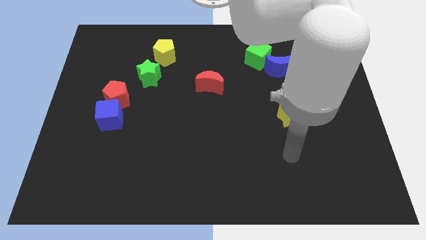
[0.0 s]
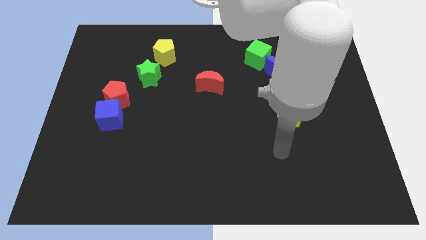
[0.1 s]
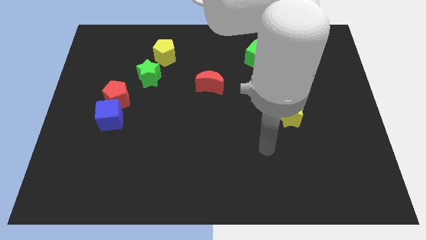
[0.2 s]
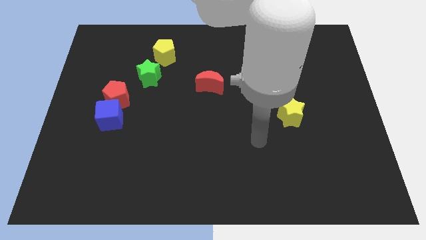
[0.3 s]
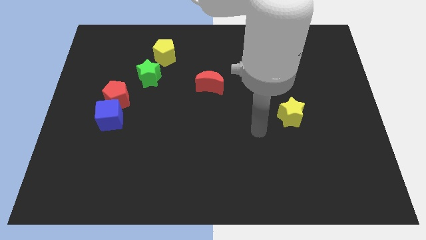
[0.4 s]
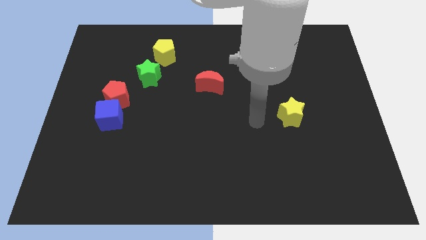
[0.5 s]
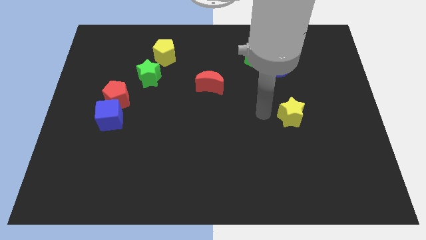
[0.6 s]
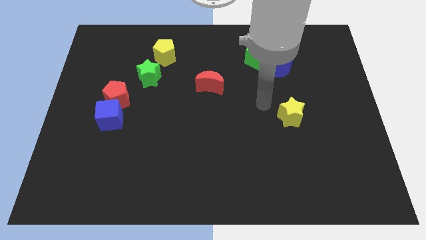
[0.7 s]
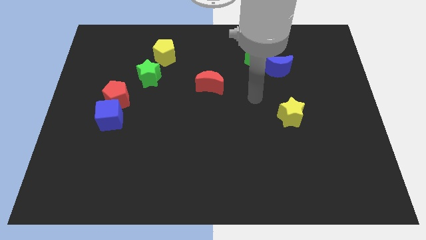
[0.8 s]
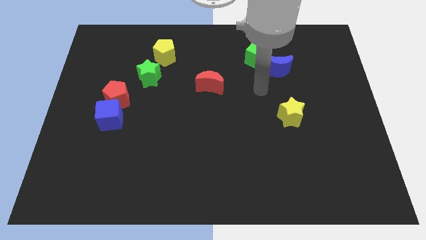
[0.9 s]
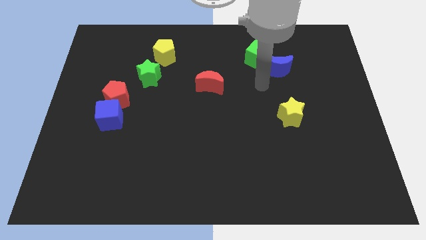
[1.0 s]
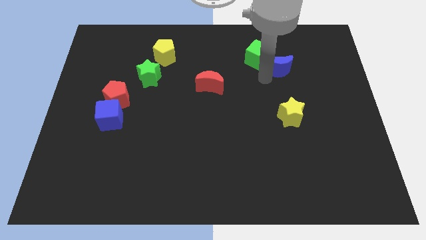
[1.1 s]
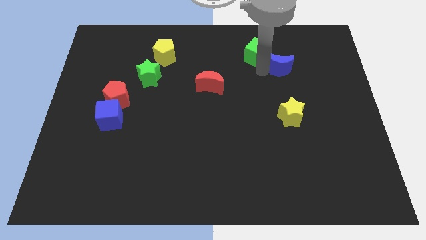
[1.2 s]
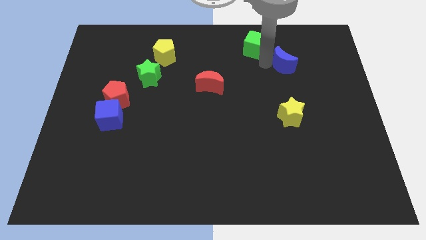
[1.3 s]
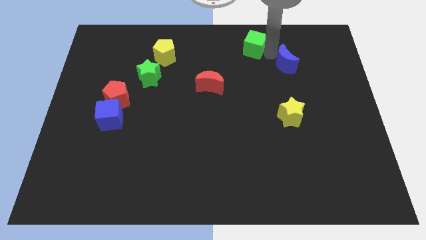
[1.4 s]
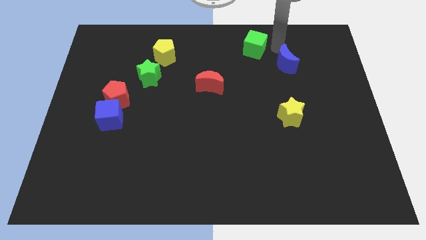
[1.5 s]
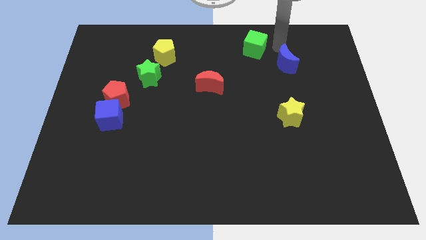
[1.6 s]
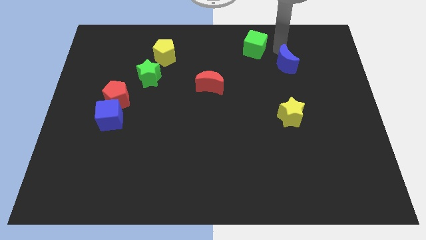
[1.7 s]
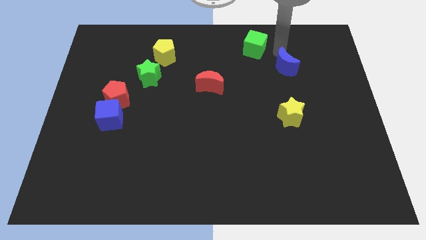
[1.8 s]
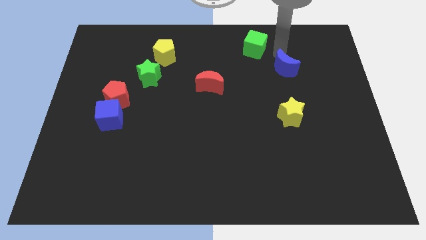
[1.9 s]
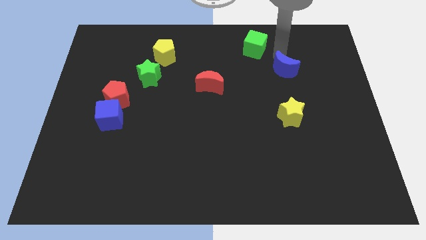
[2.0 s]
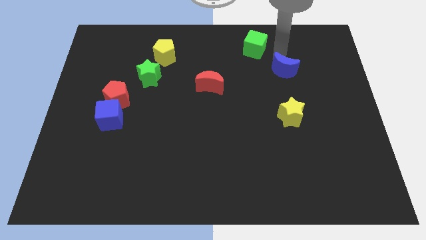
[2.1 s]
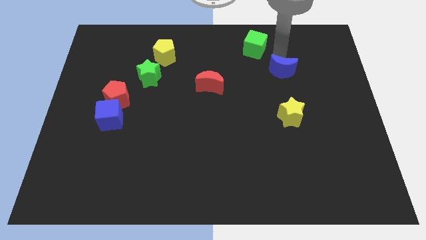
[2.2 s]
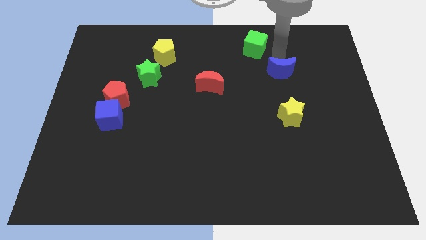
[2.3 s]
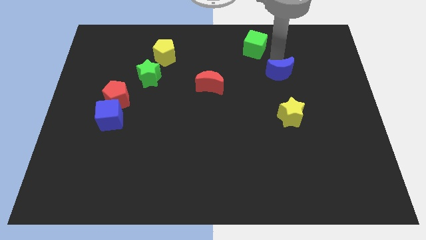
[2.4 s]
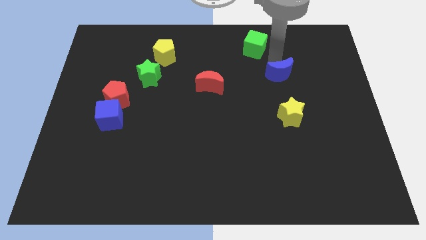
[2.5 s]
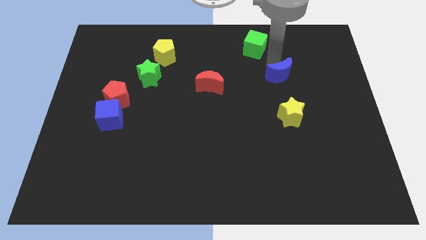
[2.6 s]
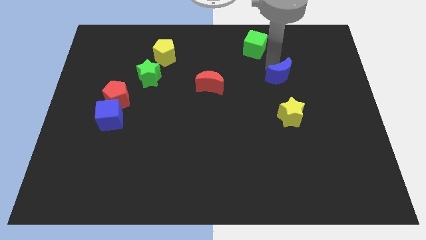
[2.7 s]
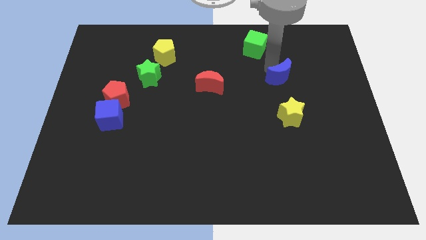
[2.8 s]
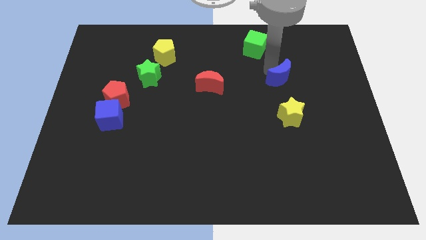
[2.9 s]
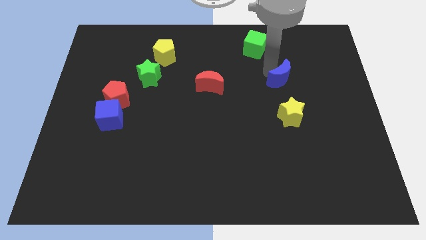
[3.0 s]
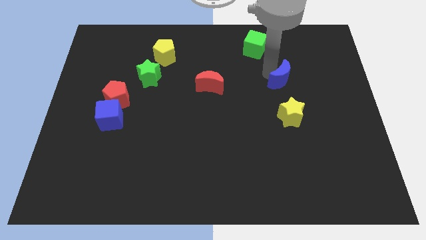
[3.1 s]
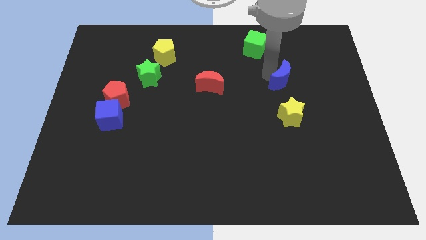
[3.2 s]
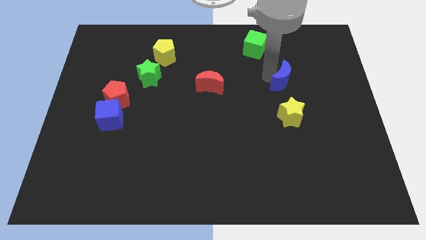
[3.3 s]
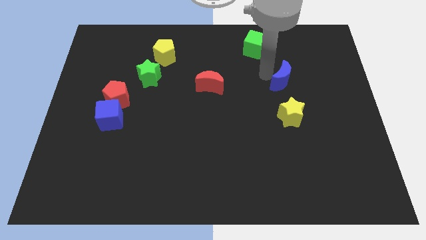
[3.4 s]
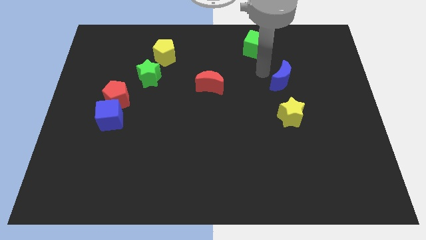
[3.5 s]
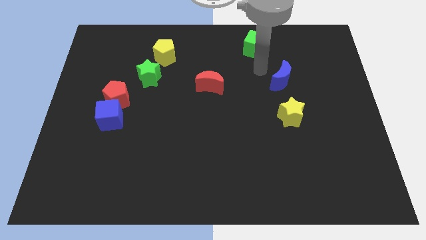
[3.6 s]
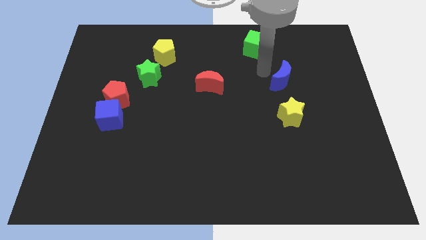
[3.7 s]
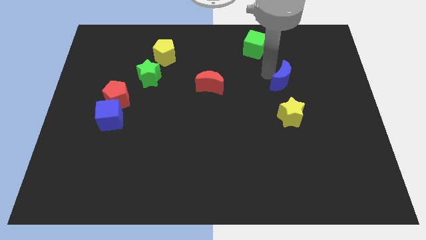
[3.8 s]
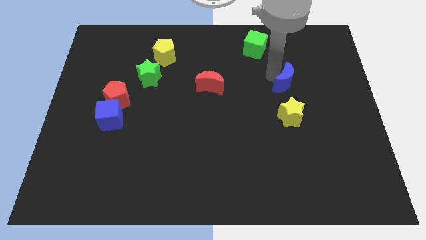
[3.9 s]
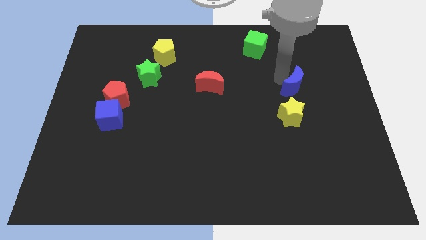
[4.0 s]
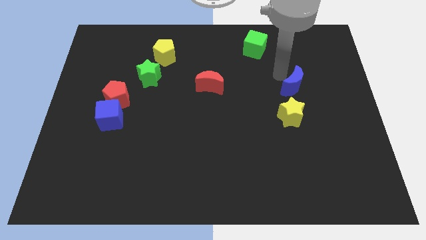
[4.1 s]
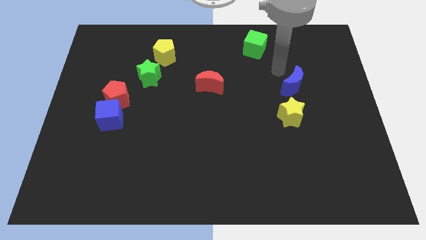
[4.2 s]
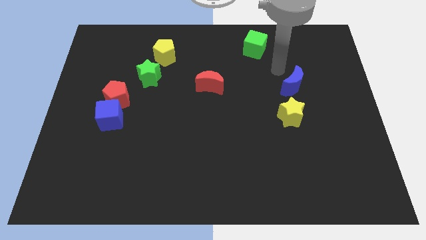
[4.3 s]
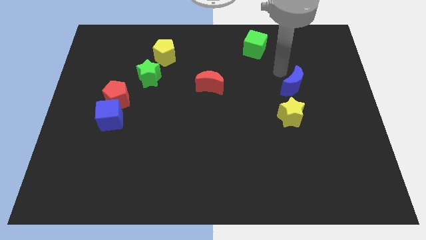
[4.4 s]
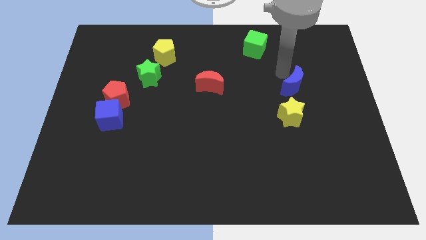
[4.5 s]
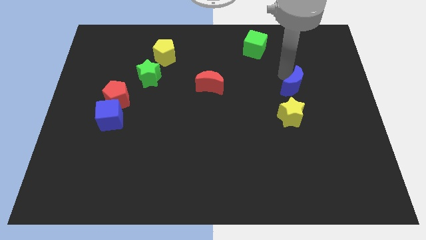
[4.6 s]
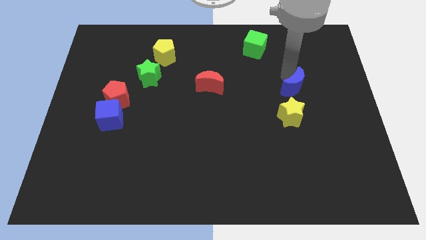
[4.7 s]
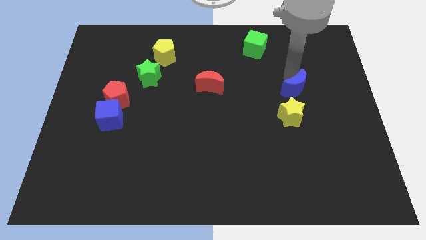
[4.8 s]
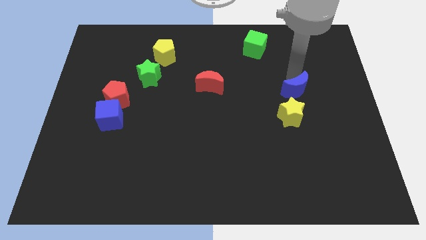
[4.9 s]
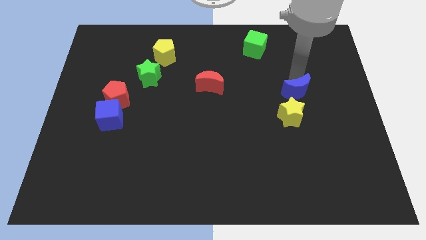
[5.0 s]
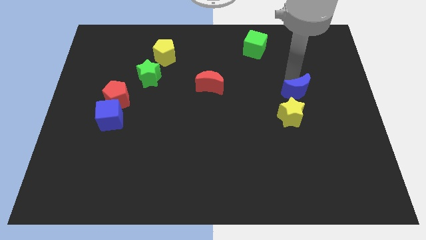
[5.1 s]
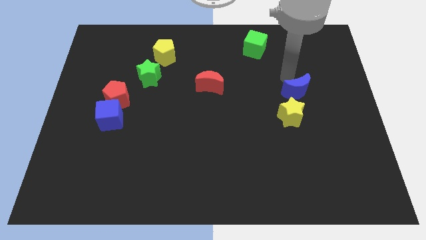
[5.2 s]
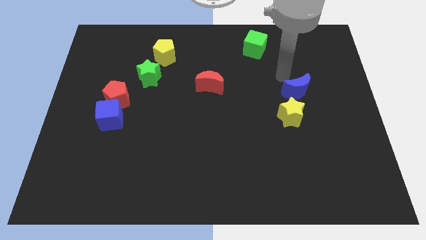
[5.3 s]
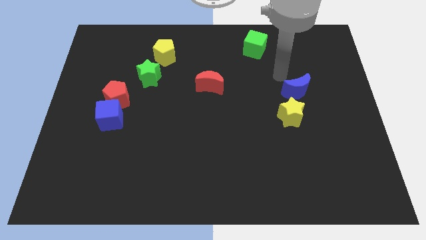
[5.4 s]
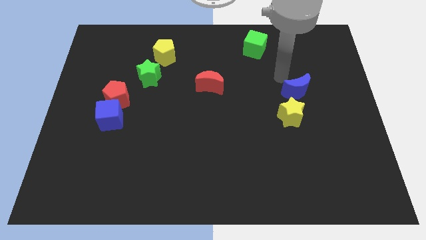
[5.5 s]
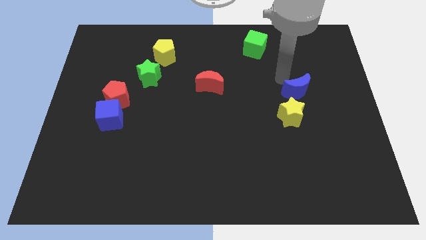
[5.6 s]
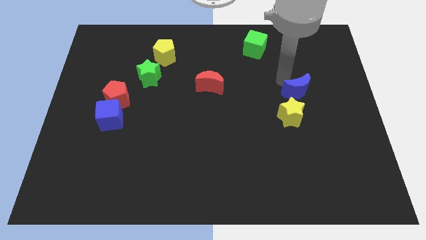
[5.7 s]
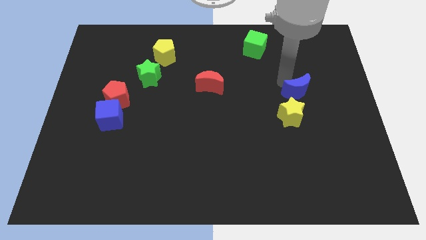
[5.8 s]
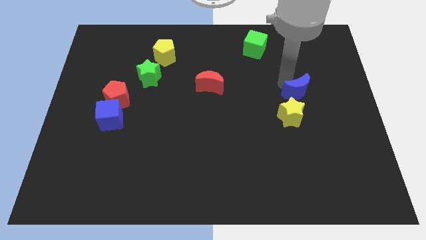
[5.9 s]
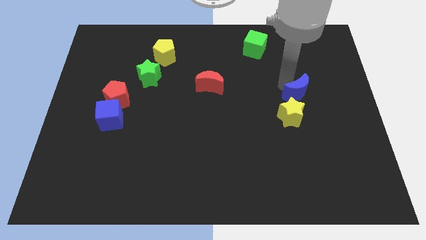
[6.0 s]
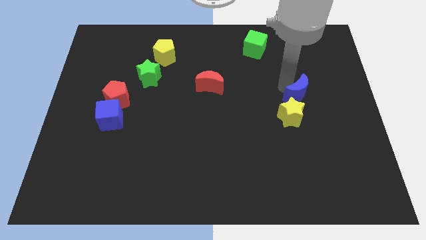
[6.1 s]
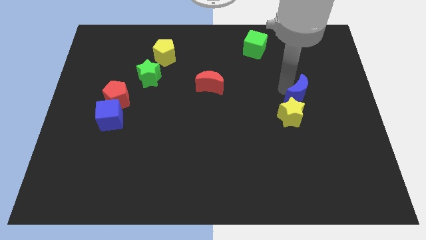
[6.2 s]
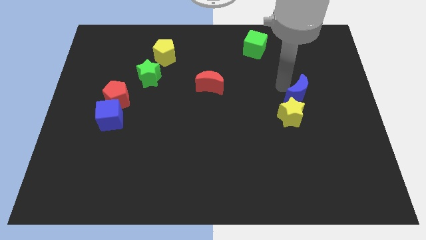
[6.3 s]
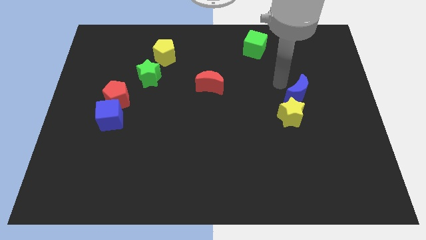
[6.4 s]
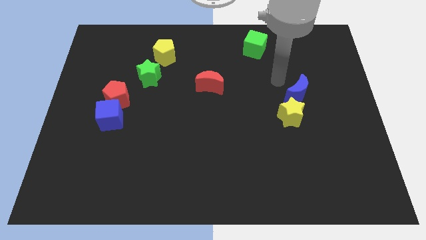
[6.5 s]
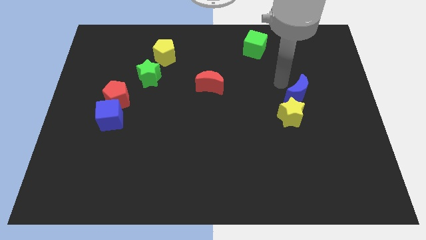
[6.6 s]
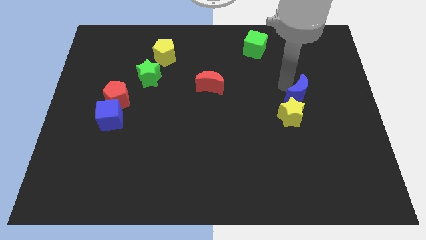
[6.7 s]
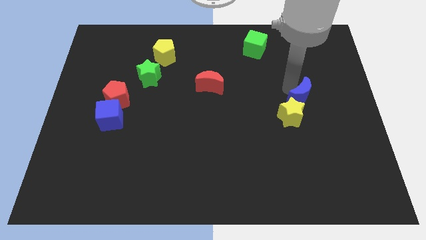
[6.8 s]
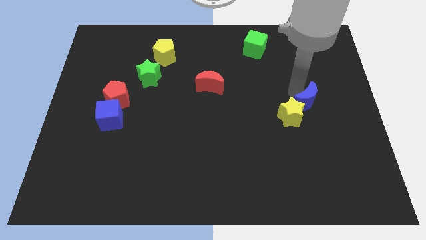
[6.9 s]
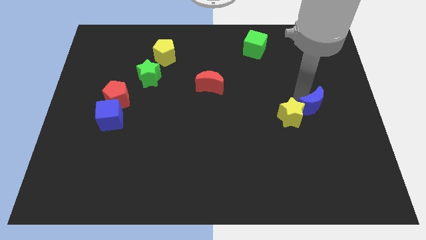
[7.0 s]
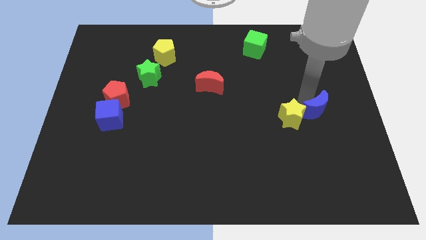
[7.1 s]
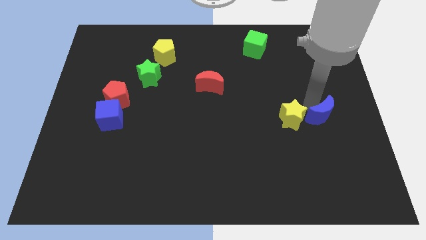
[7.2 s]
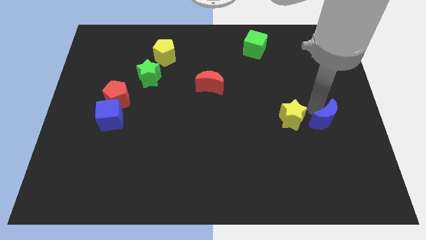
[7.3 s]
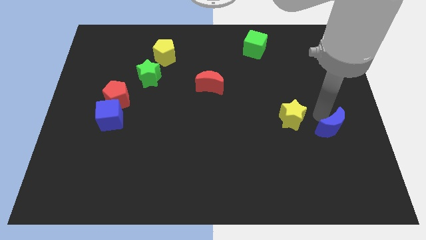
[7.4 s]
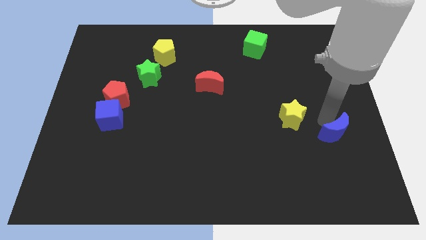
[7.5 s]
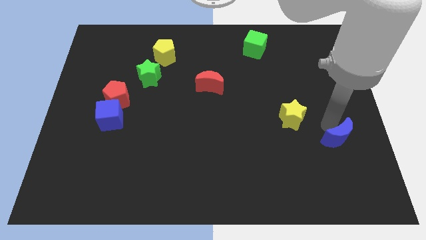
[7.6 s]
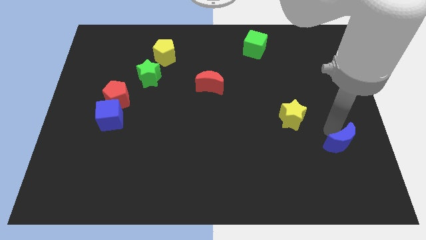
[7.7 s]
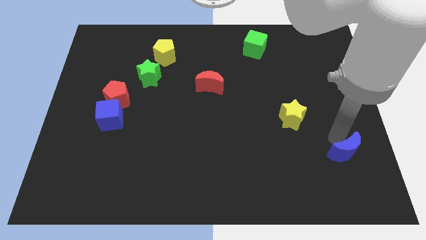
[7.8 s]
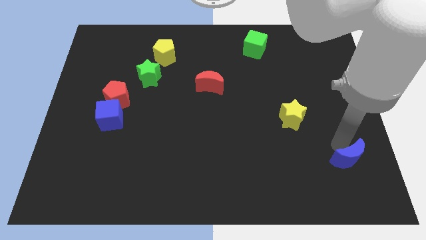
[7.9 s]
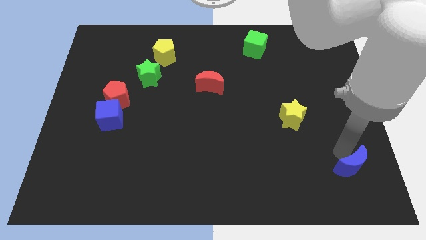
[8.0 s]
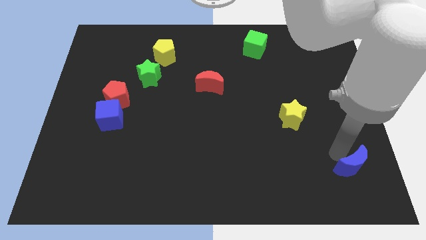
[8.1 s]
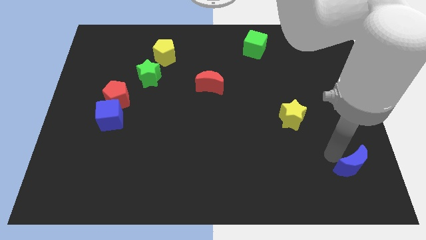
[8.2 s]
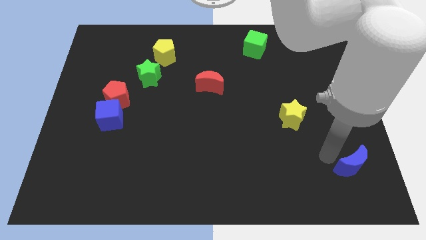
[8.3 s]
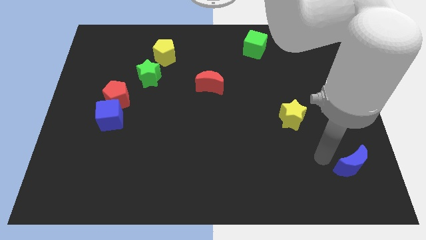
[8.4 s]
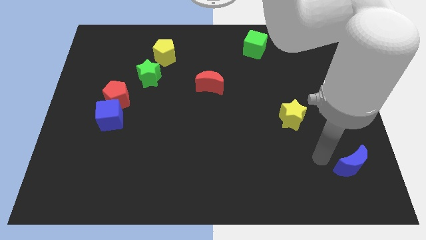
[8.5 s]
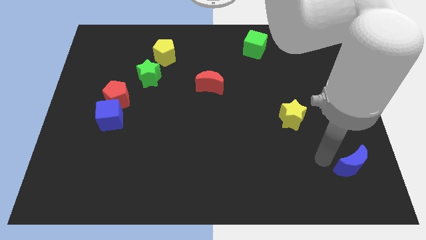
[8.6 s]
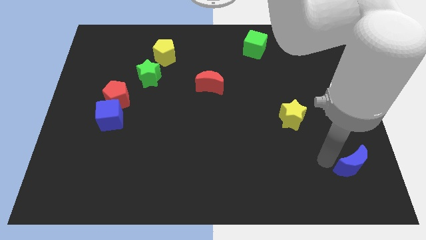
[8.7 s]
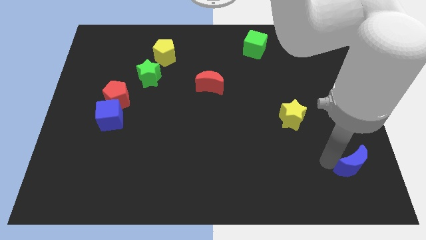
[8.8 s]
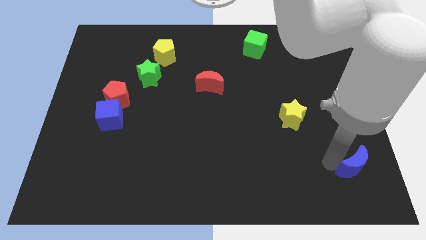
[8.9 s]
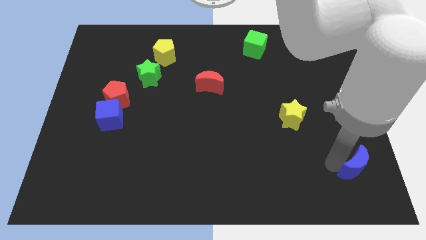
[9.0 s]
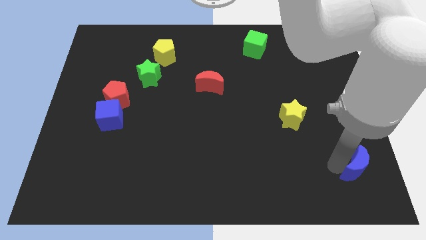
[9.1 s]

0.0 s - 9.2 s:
push the blue moon to the bottom right corner
